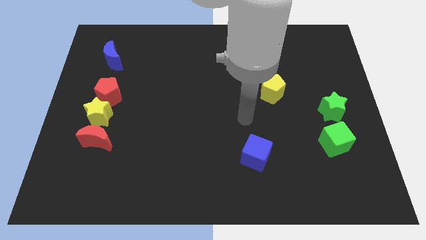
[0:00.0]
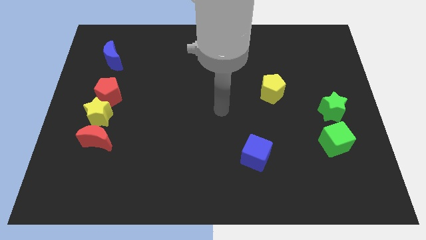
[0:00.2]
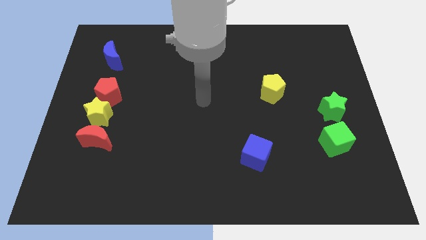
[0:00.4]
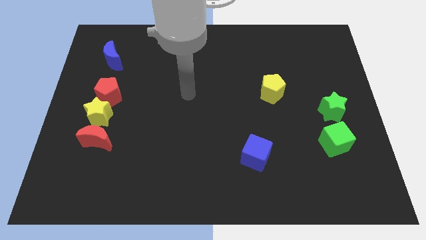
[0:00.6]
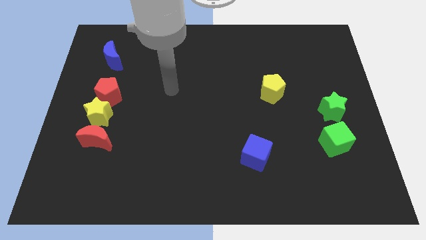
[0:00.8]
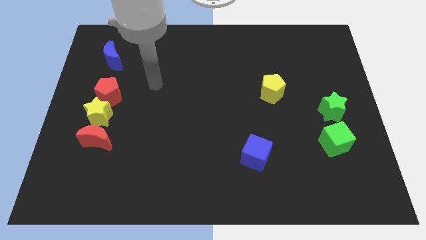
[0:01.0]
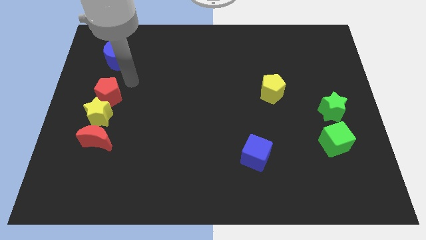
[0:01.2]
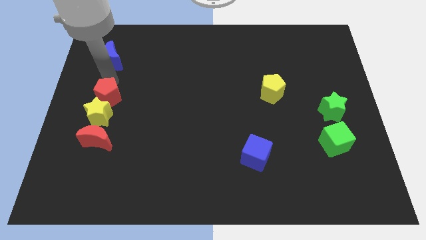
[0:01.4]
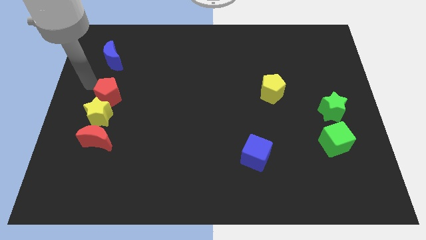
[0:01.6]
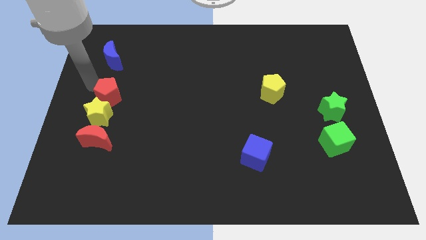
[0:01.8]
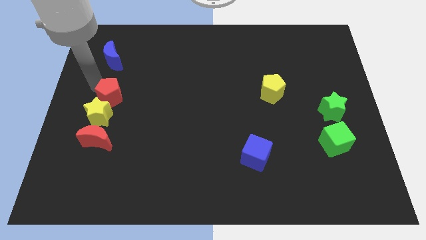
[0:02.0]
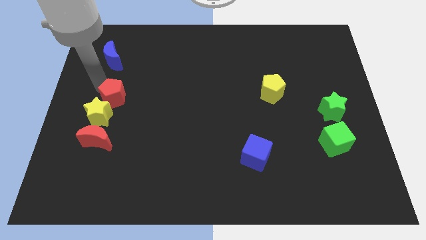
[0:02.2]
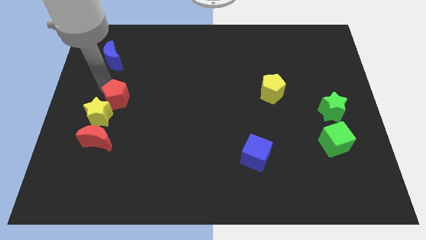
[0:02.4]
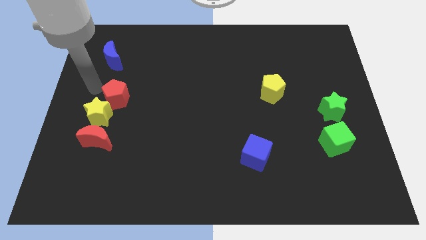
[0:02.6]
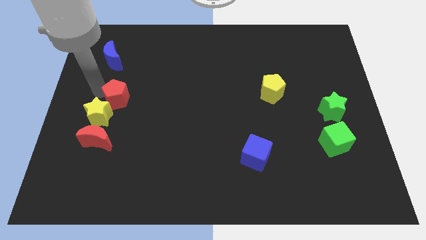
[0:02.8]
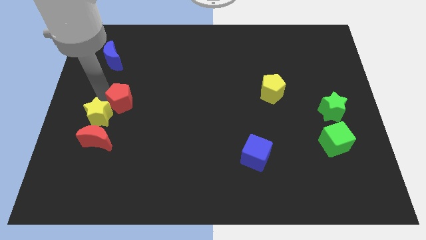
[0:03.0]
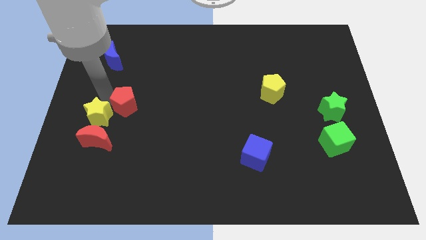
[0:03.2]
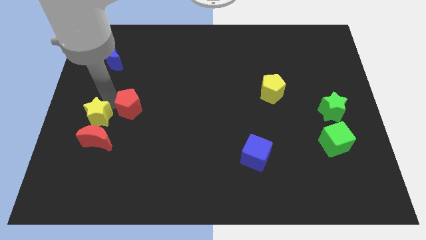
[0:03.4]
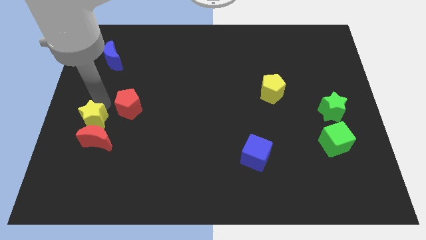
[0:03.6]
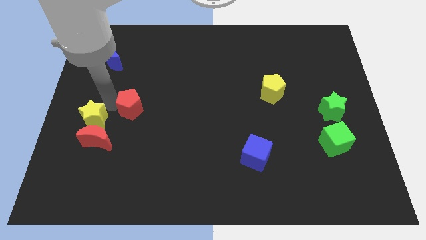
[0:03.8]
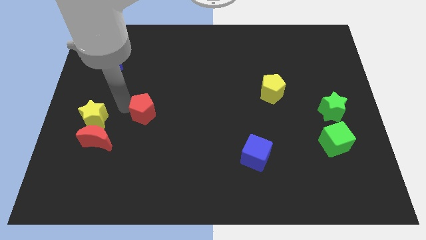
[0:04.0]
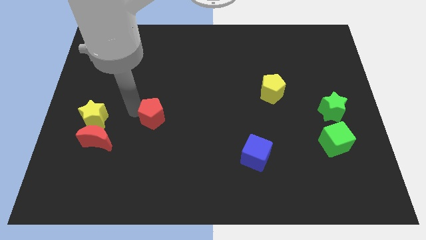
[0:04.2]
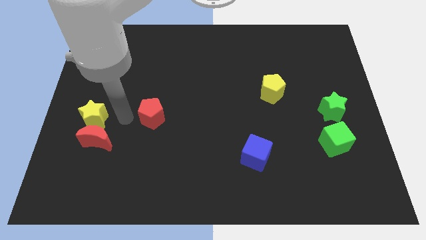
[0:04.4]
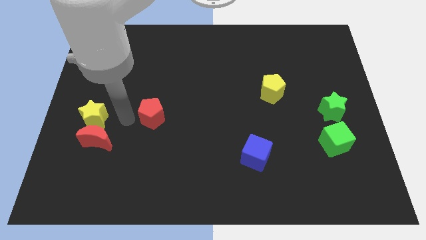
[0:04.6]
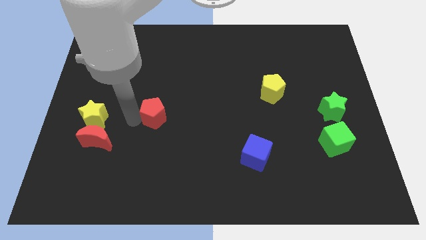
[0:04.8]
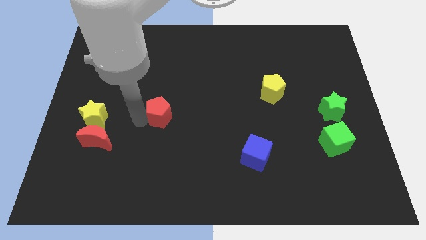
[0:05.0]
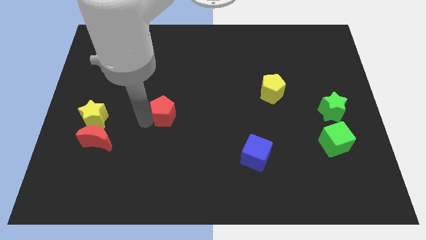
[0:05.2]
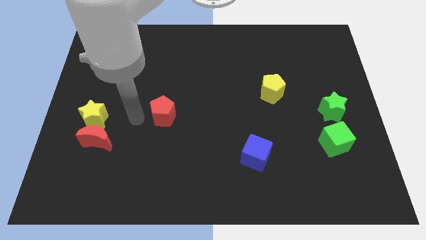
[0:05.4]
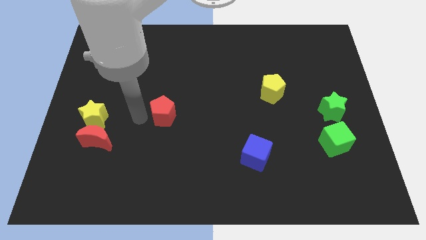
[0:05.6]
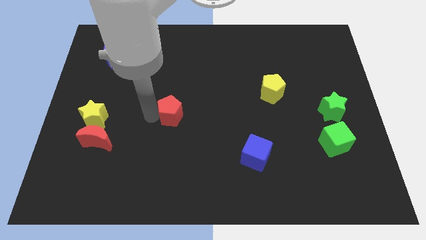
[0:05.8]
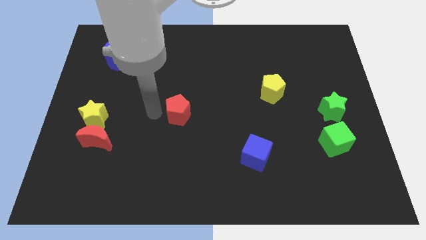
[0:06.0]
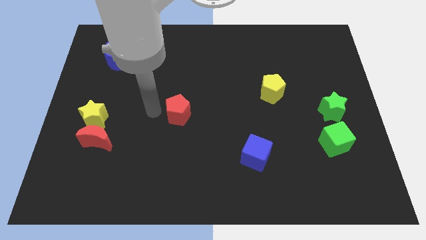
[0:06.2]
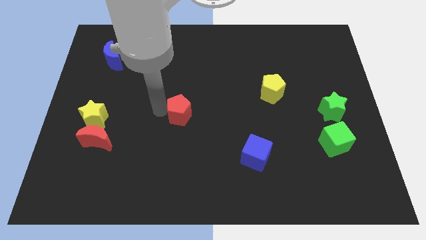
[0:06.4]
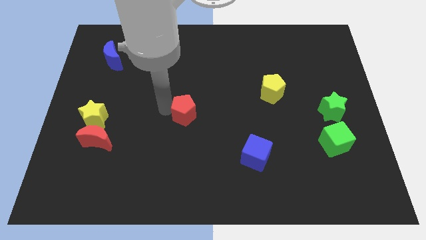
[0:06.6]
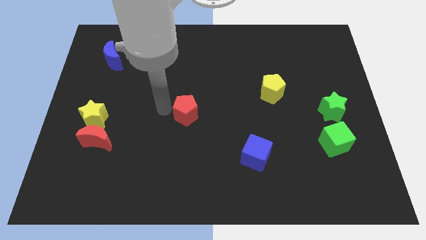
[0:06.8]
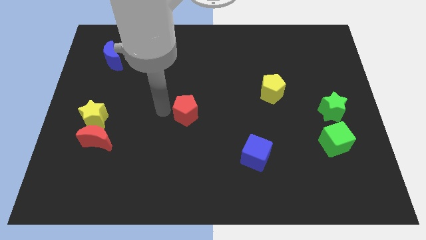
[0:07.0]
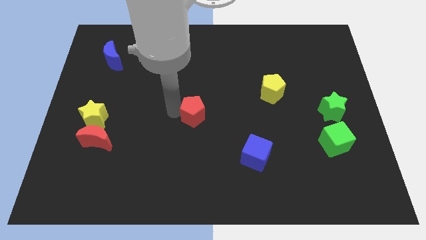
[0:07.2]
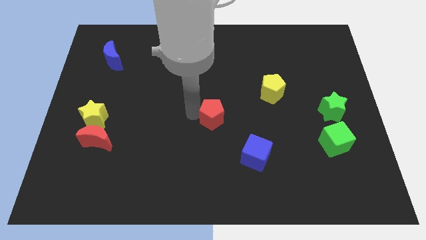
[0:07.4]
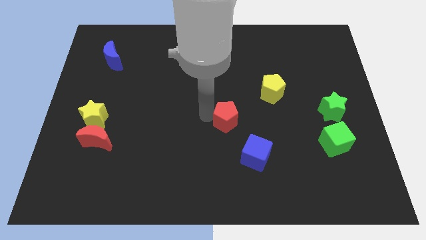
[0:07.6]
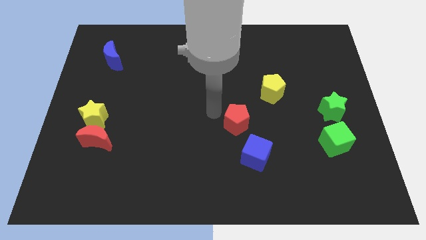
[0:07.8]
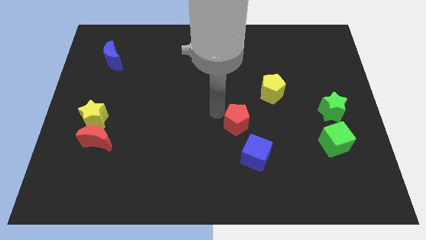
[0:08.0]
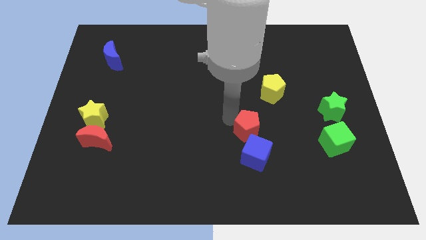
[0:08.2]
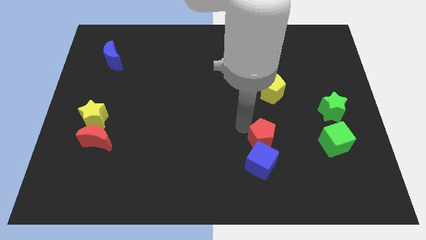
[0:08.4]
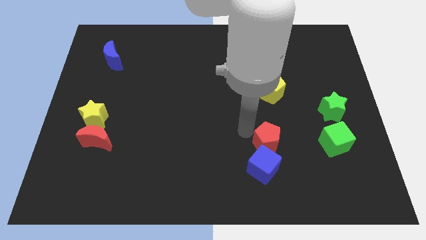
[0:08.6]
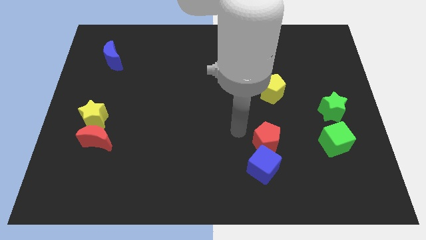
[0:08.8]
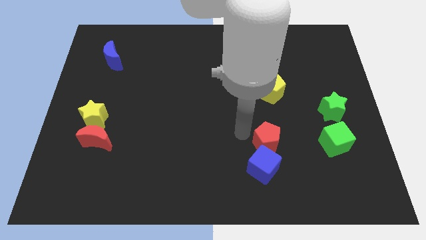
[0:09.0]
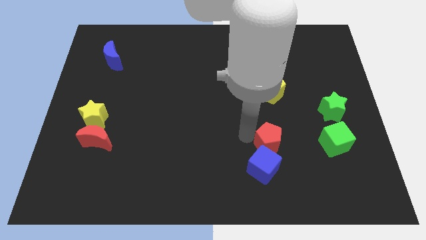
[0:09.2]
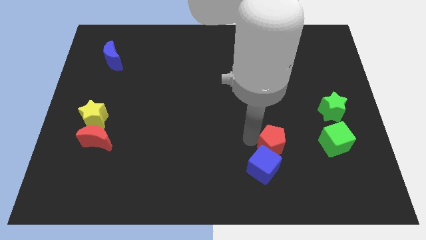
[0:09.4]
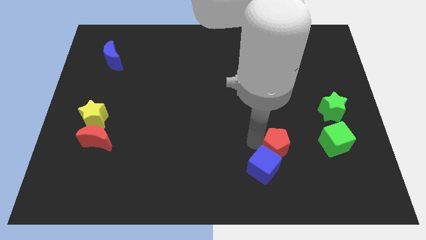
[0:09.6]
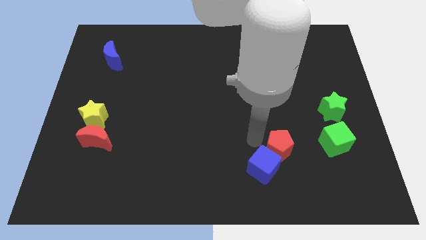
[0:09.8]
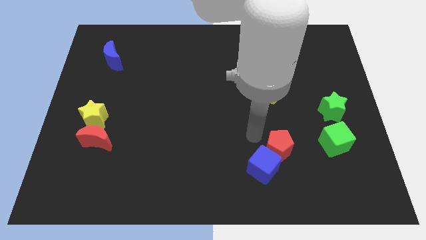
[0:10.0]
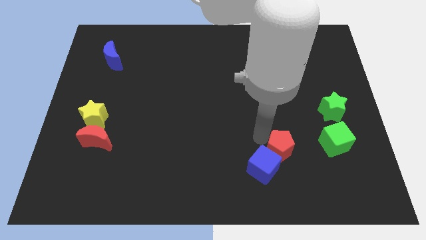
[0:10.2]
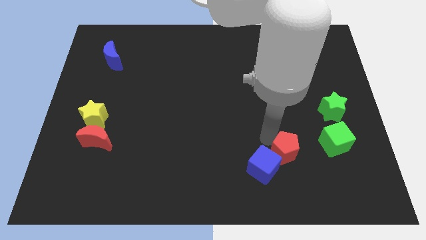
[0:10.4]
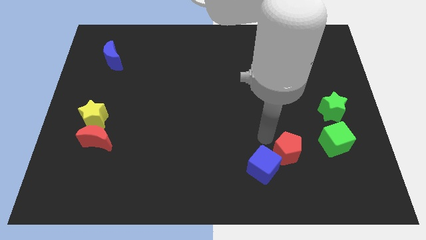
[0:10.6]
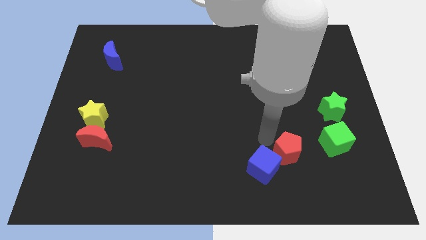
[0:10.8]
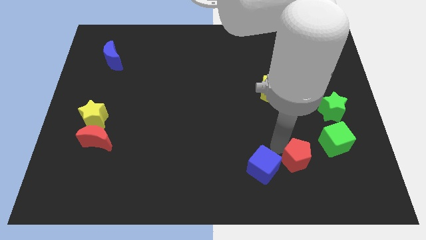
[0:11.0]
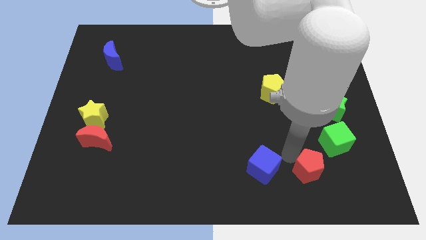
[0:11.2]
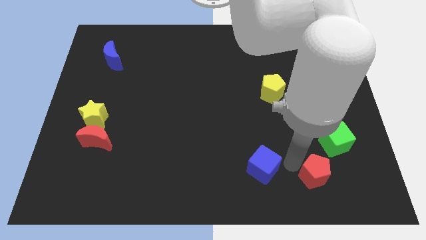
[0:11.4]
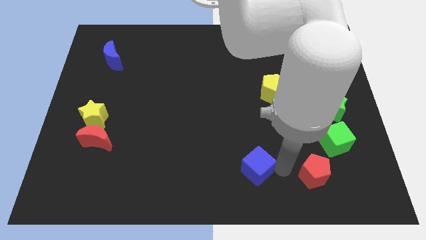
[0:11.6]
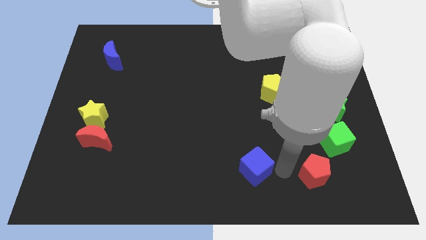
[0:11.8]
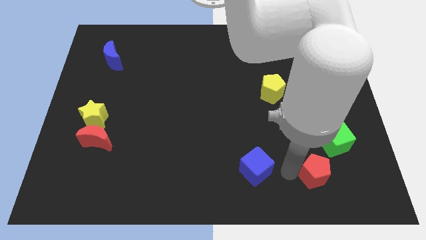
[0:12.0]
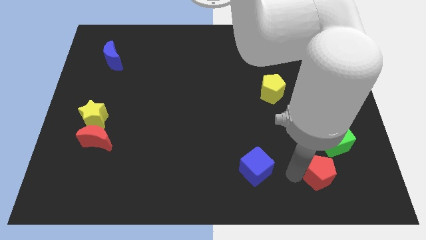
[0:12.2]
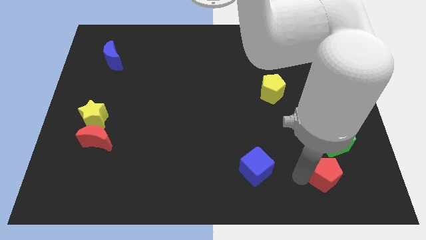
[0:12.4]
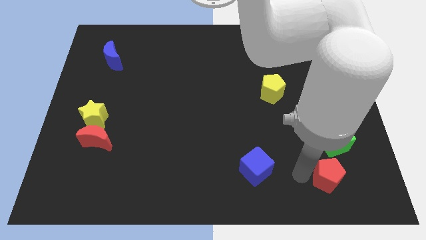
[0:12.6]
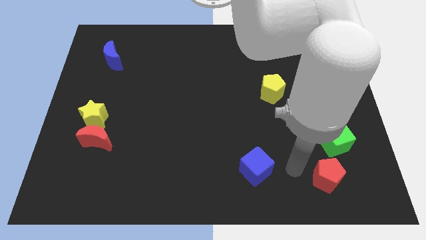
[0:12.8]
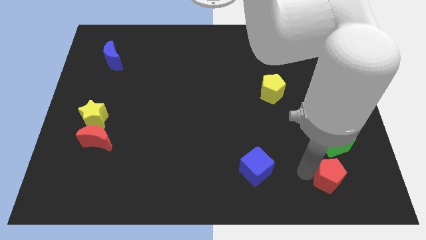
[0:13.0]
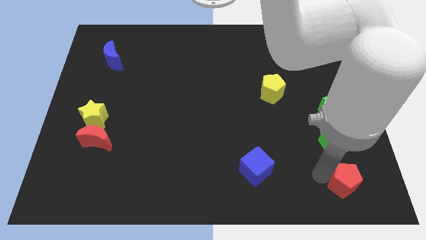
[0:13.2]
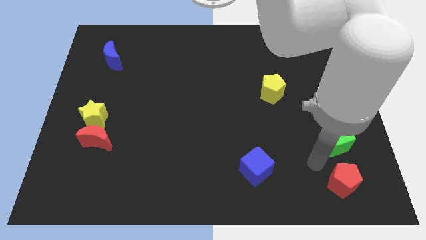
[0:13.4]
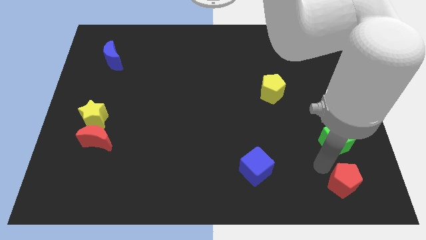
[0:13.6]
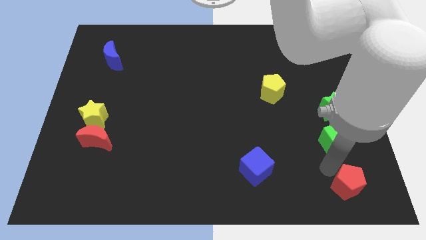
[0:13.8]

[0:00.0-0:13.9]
slide the red pentagon to the lower right corner
